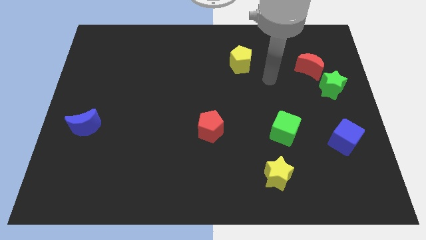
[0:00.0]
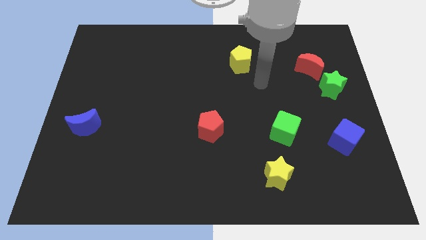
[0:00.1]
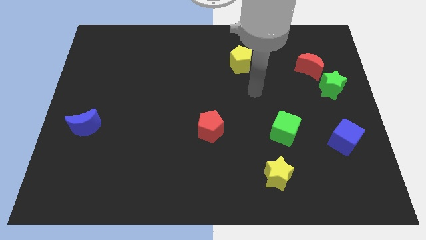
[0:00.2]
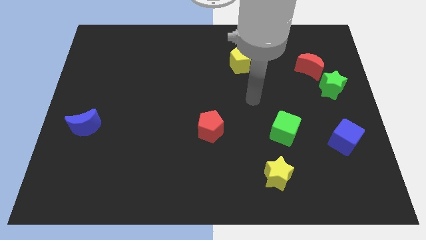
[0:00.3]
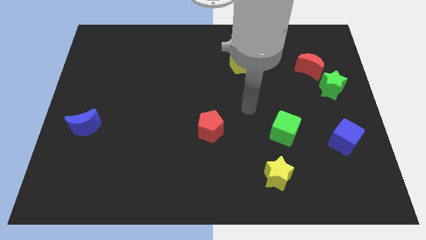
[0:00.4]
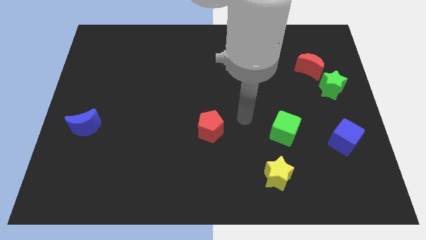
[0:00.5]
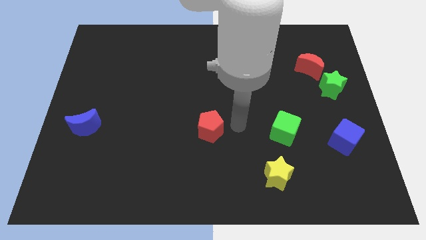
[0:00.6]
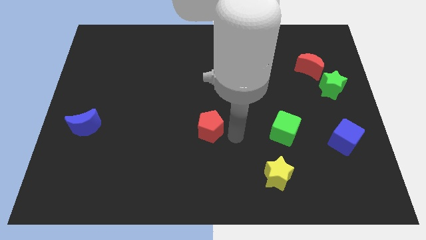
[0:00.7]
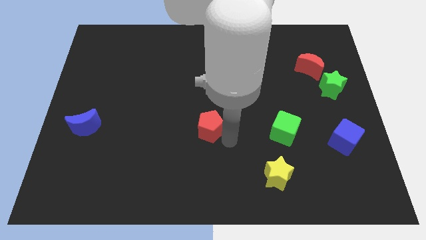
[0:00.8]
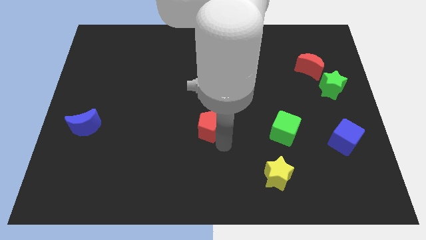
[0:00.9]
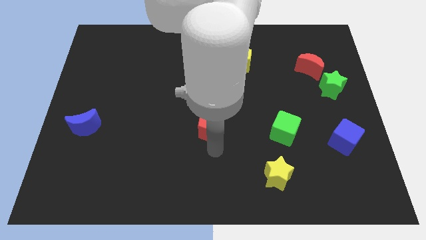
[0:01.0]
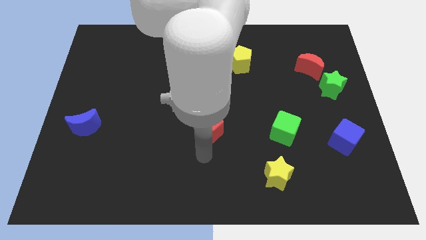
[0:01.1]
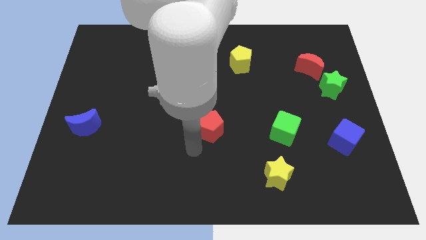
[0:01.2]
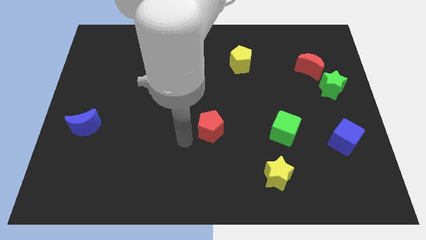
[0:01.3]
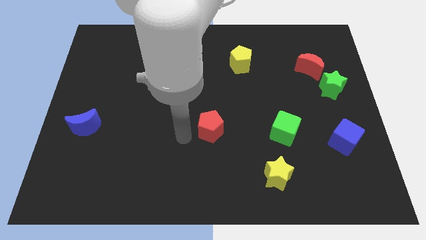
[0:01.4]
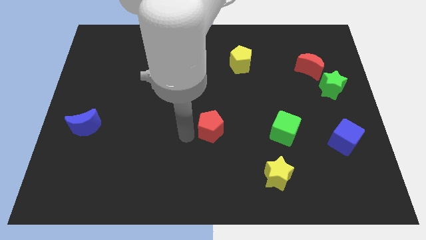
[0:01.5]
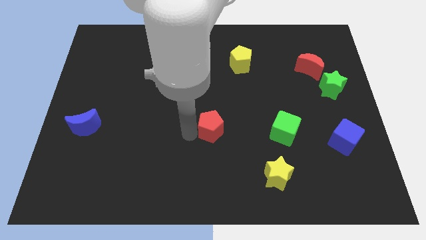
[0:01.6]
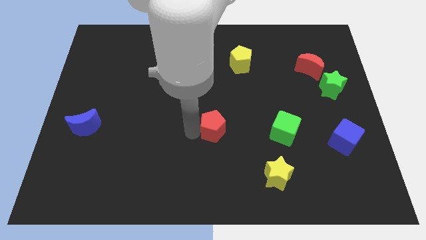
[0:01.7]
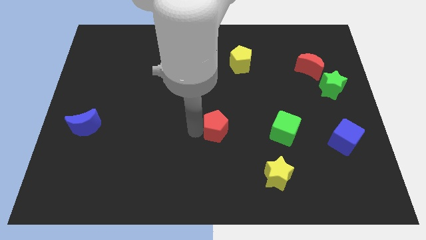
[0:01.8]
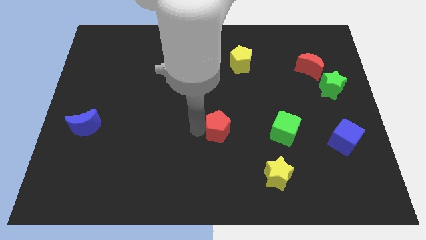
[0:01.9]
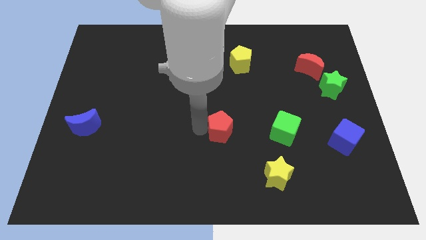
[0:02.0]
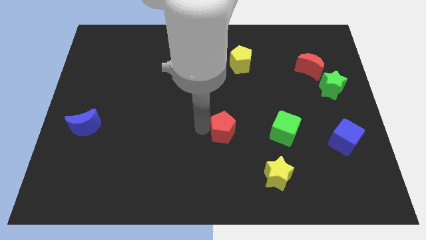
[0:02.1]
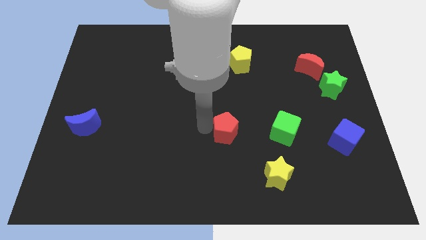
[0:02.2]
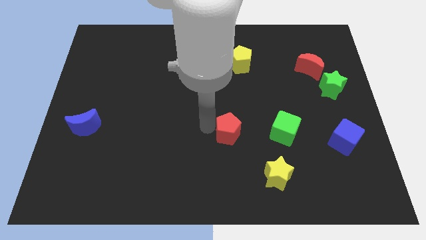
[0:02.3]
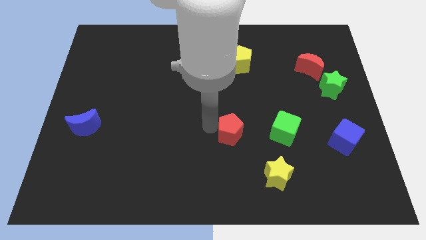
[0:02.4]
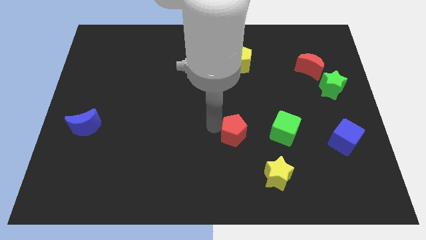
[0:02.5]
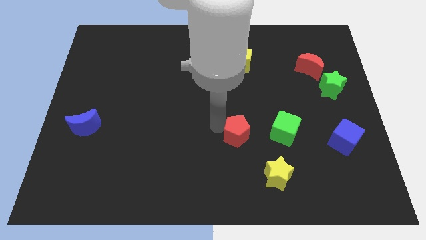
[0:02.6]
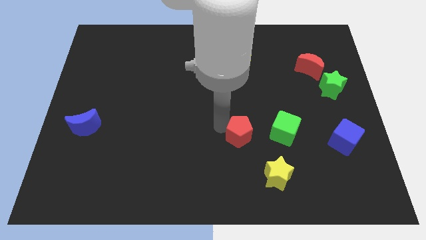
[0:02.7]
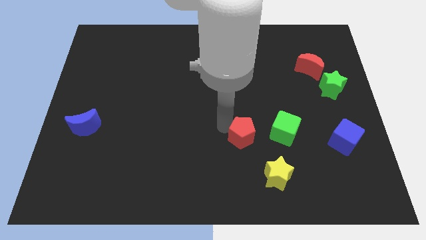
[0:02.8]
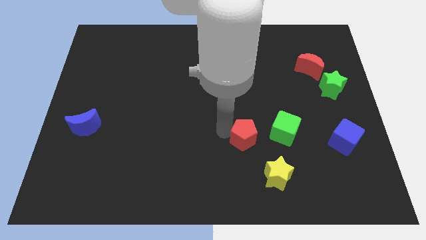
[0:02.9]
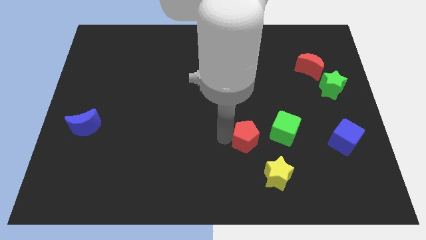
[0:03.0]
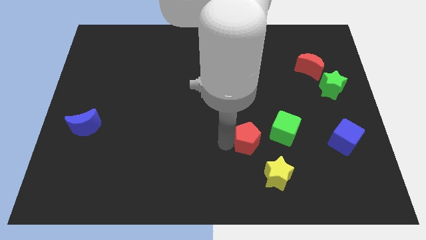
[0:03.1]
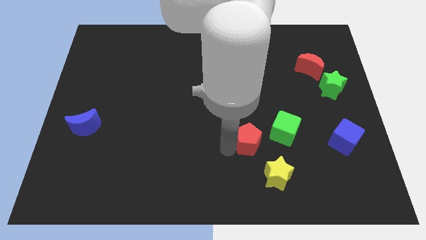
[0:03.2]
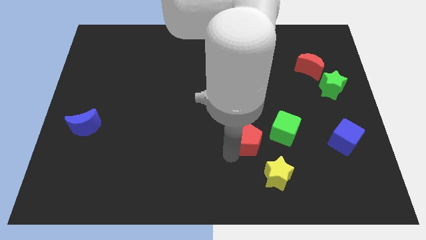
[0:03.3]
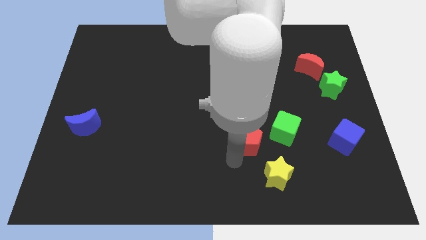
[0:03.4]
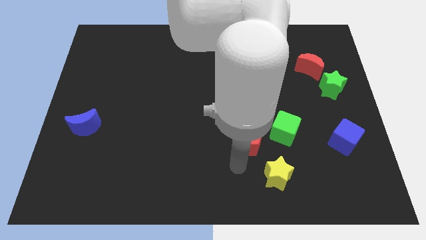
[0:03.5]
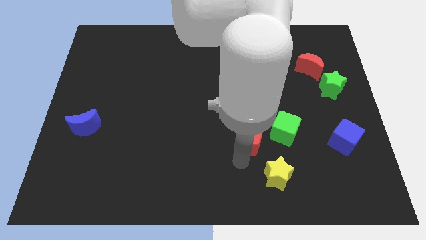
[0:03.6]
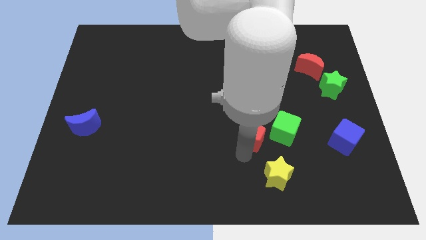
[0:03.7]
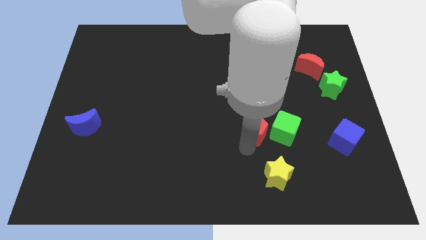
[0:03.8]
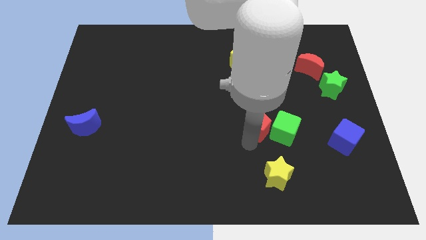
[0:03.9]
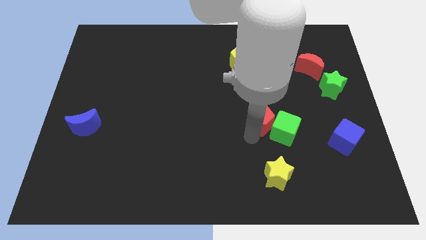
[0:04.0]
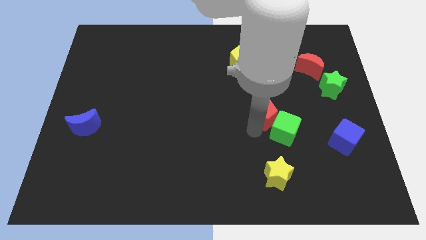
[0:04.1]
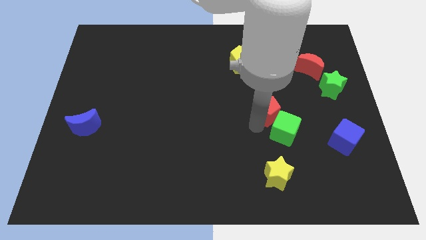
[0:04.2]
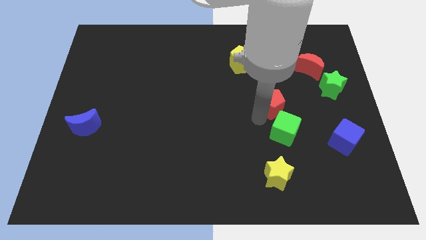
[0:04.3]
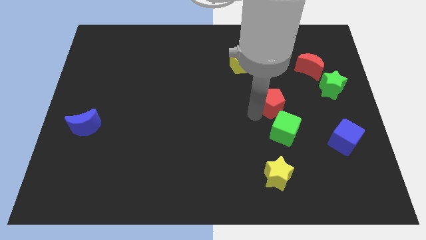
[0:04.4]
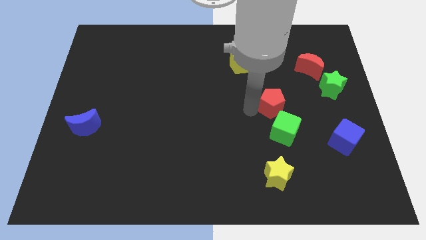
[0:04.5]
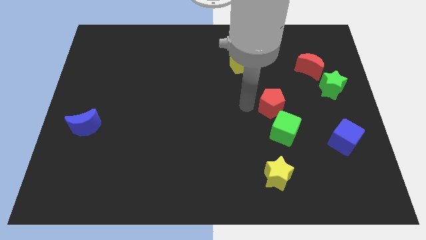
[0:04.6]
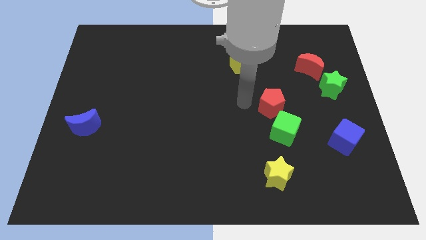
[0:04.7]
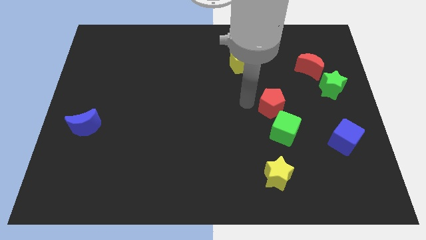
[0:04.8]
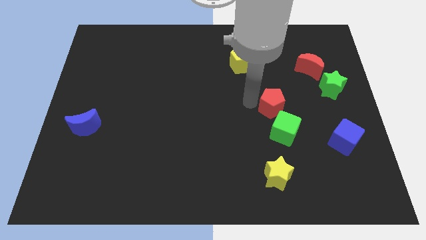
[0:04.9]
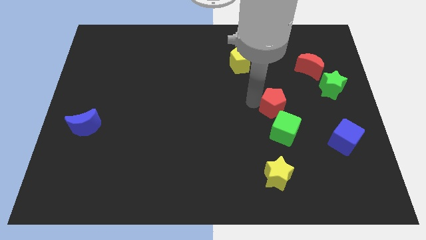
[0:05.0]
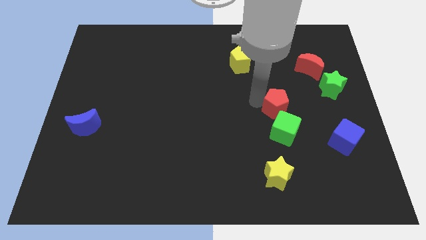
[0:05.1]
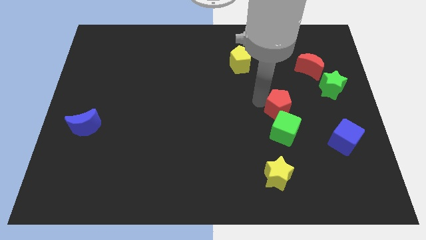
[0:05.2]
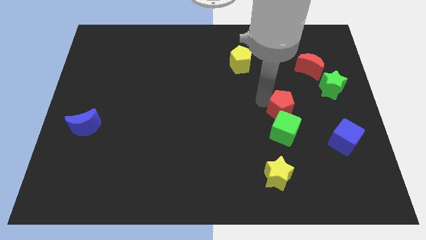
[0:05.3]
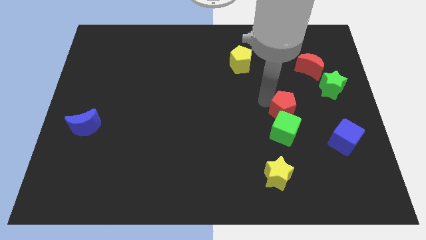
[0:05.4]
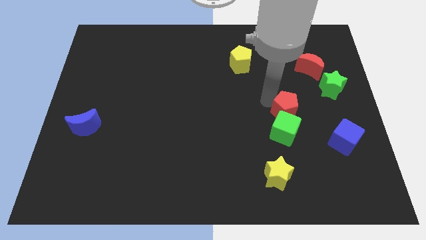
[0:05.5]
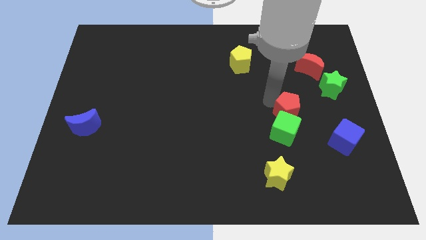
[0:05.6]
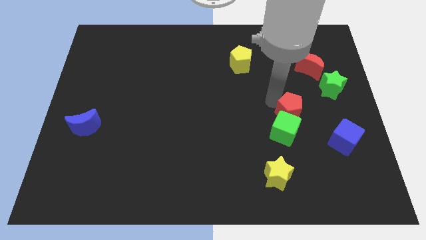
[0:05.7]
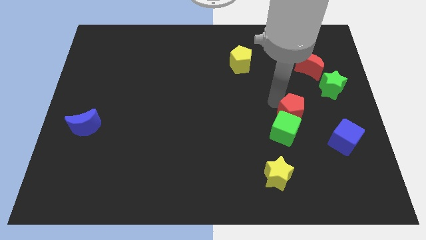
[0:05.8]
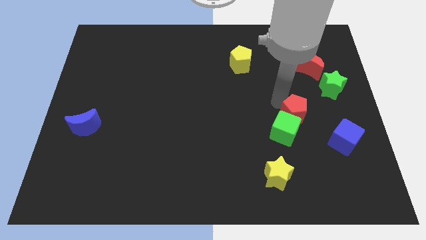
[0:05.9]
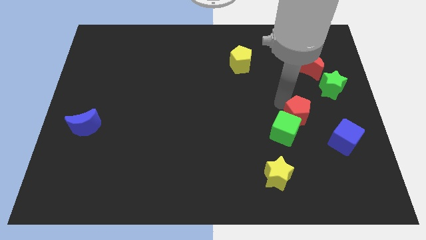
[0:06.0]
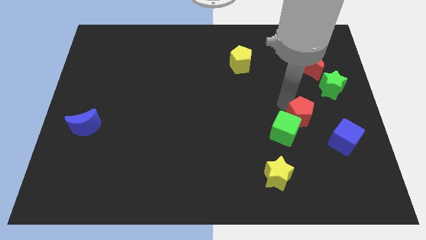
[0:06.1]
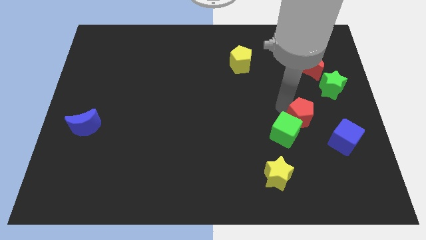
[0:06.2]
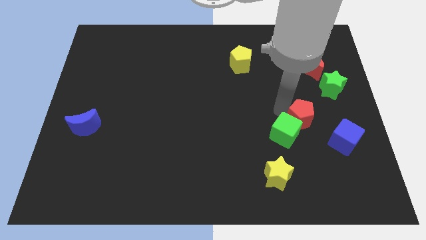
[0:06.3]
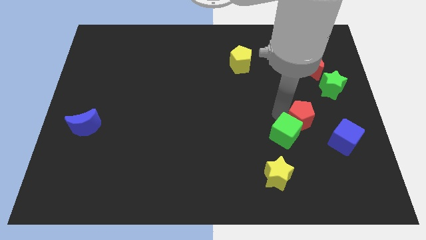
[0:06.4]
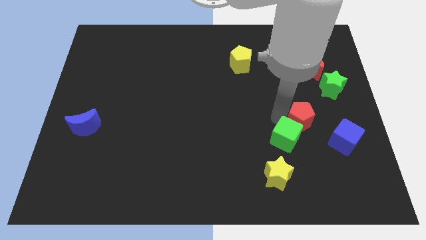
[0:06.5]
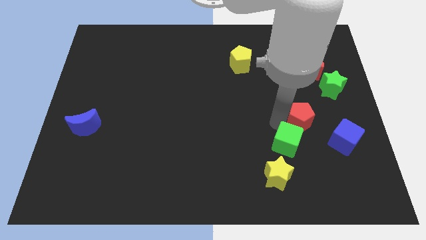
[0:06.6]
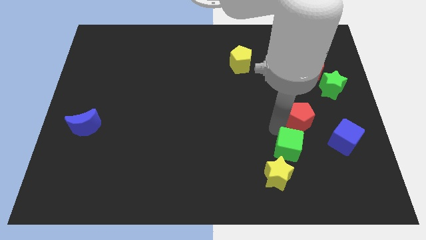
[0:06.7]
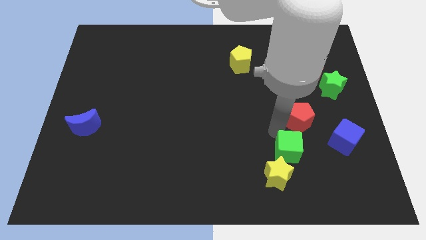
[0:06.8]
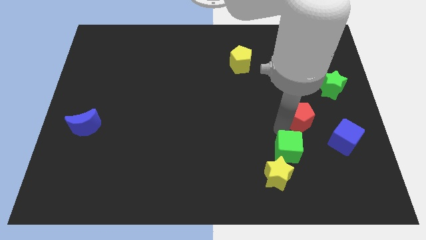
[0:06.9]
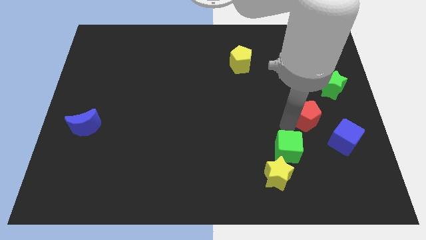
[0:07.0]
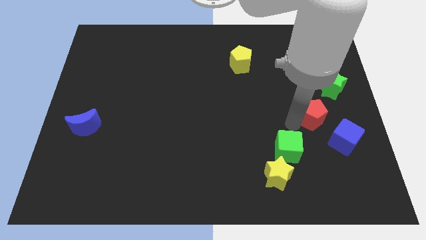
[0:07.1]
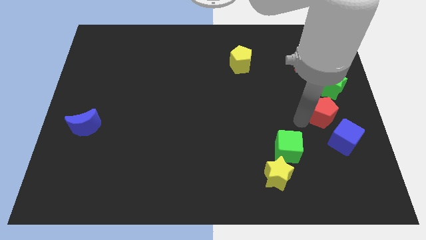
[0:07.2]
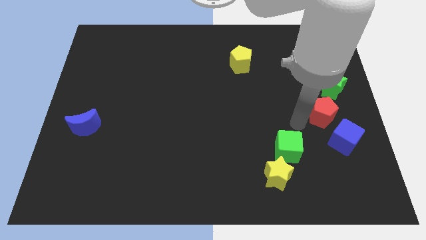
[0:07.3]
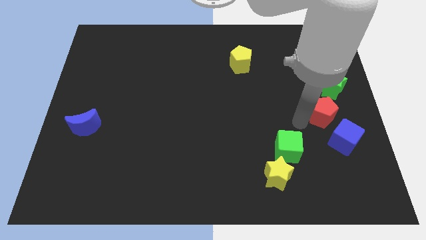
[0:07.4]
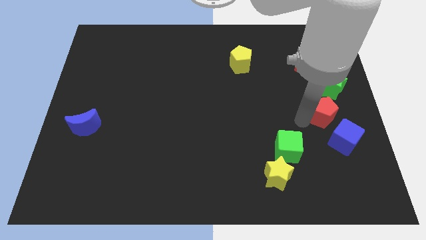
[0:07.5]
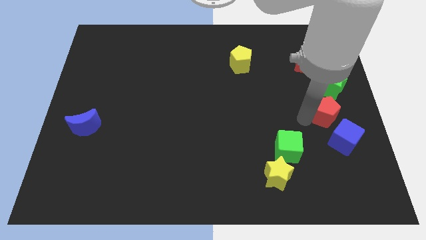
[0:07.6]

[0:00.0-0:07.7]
move the red pentagon to the right side
